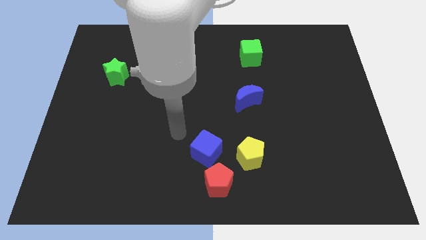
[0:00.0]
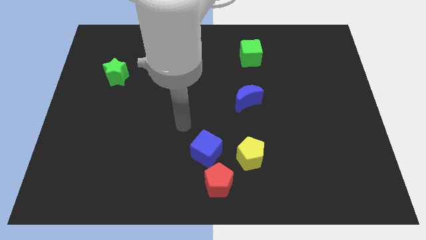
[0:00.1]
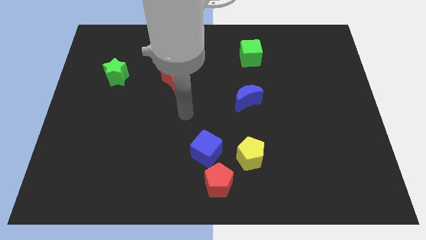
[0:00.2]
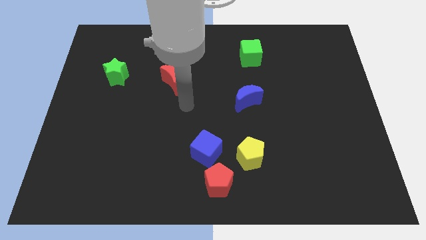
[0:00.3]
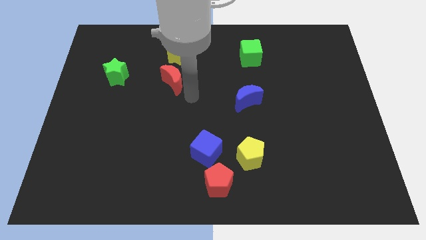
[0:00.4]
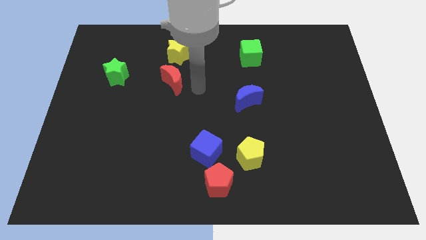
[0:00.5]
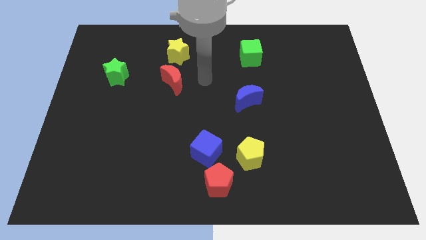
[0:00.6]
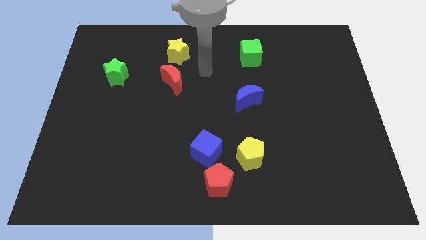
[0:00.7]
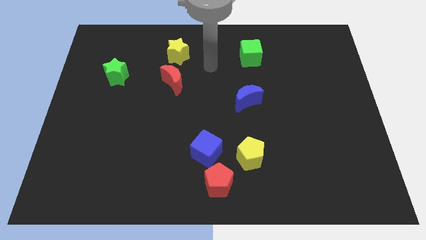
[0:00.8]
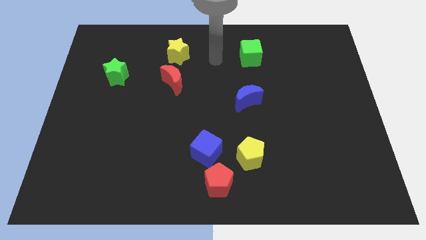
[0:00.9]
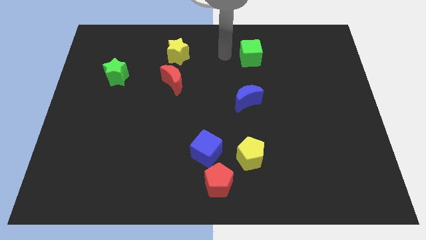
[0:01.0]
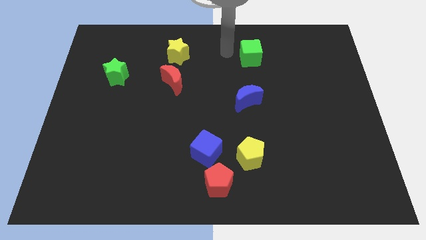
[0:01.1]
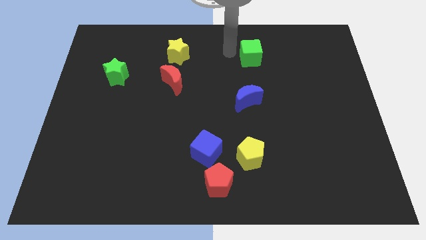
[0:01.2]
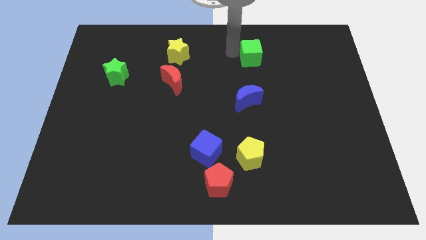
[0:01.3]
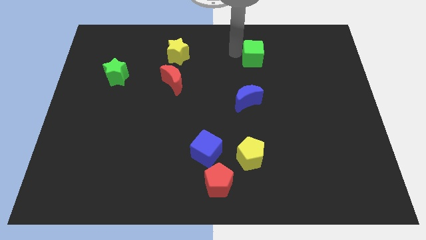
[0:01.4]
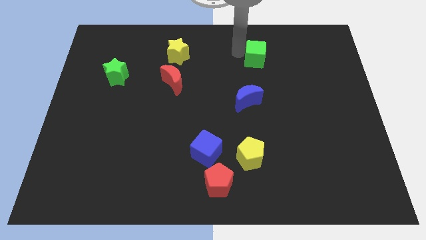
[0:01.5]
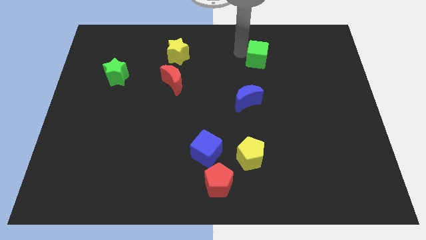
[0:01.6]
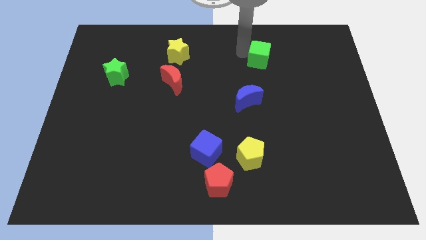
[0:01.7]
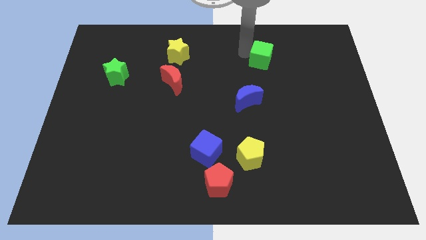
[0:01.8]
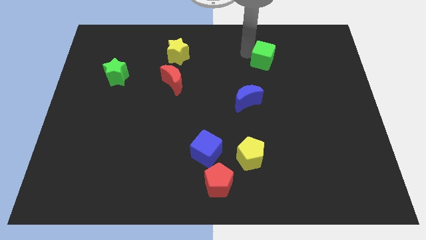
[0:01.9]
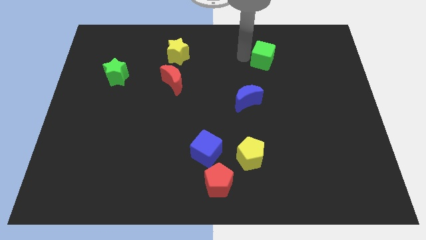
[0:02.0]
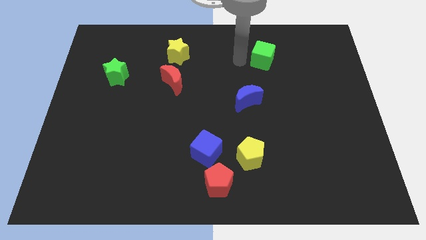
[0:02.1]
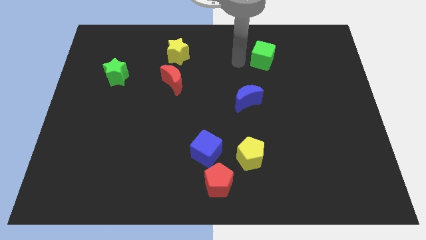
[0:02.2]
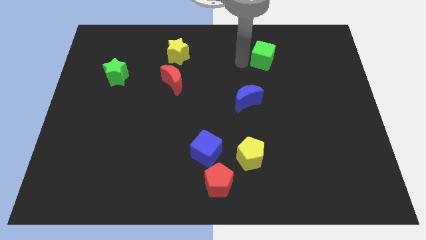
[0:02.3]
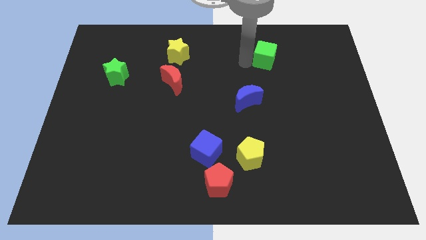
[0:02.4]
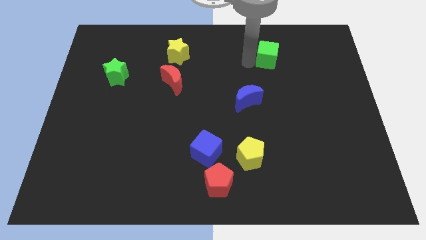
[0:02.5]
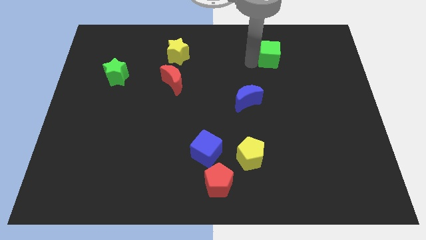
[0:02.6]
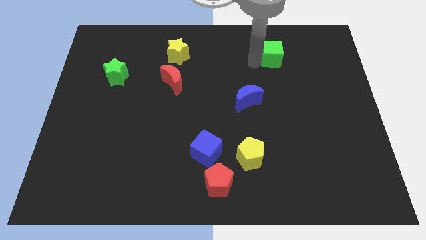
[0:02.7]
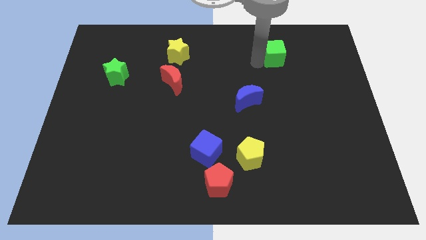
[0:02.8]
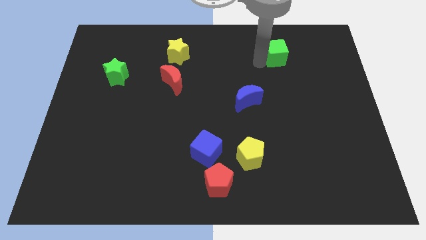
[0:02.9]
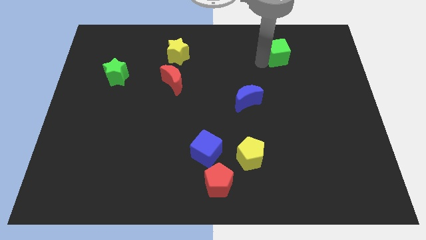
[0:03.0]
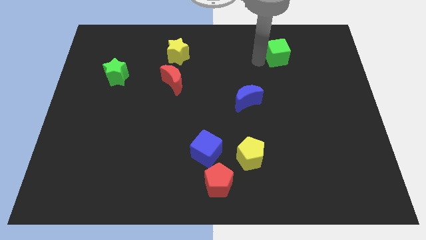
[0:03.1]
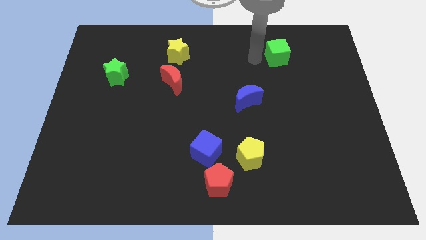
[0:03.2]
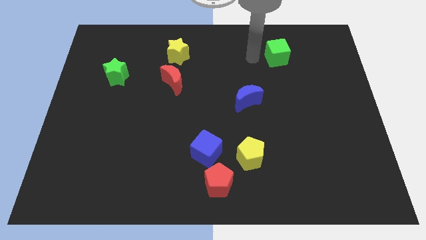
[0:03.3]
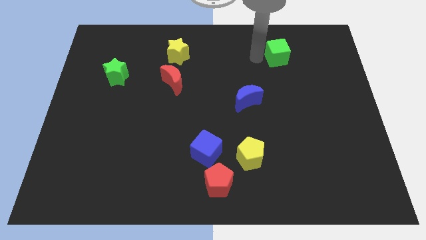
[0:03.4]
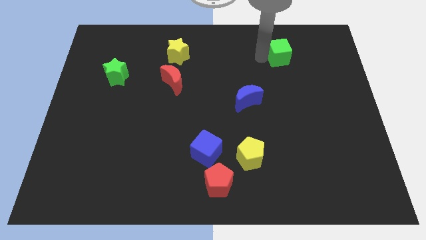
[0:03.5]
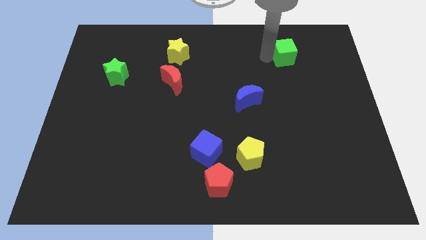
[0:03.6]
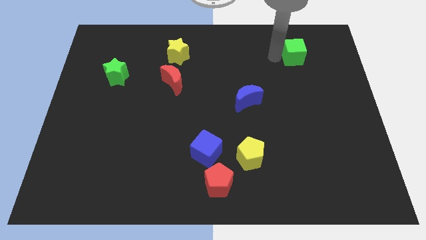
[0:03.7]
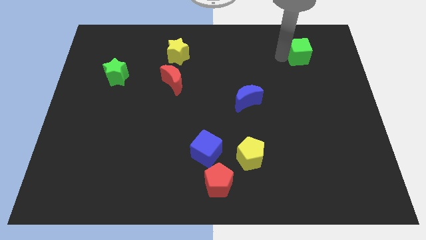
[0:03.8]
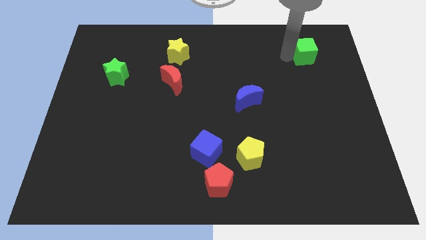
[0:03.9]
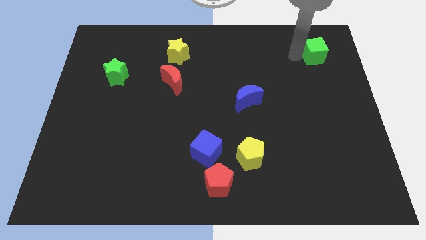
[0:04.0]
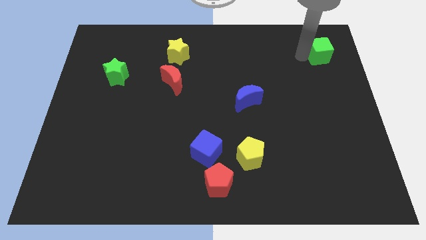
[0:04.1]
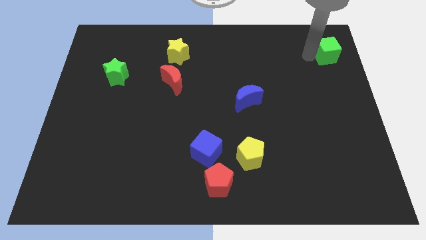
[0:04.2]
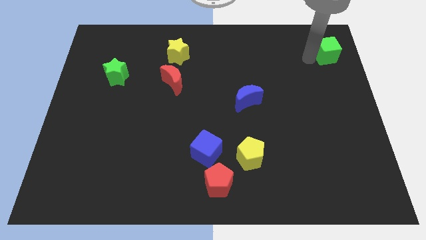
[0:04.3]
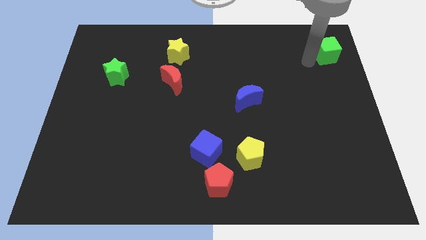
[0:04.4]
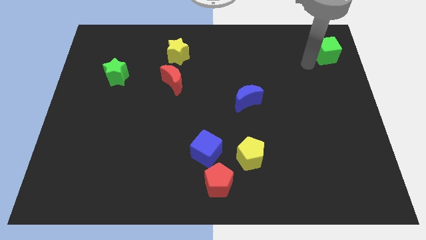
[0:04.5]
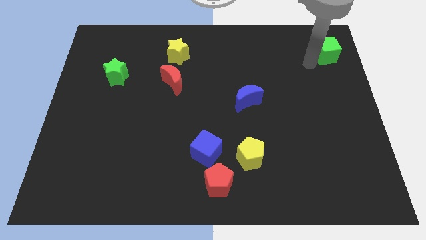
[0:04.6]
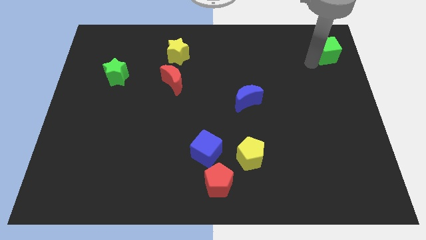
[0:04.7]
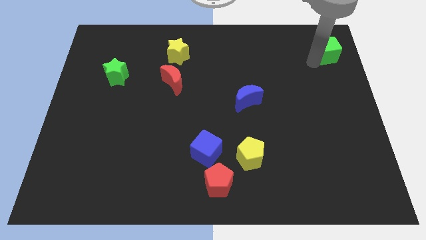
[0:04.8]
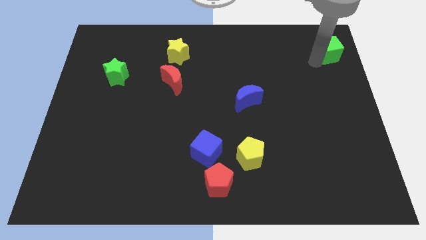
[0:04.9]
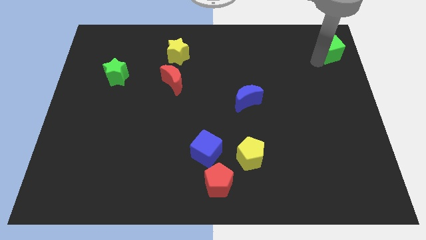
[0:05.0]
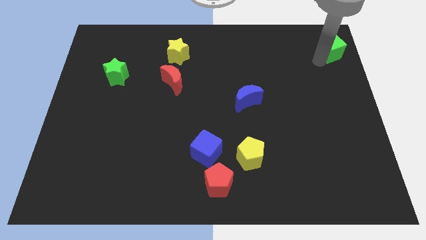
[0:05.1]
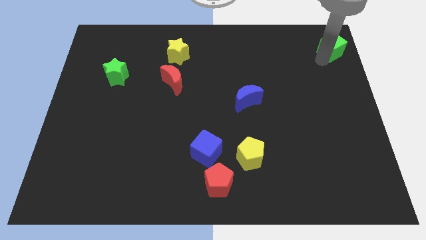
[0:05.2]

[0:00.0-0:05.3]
move the green cube to the top right of the board
